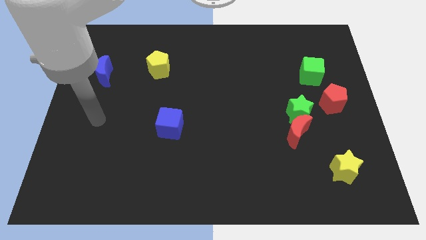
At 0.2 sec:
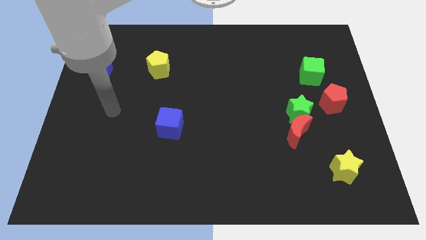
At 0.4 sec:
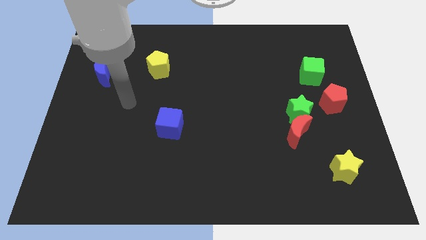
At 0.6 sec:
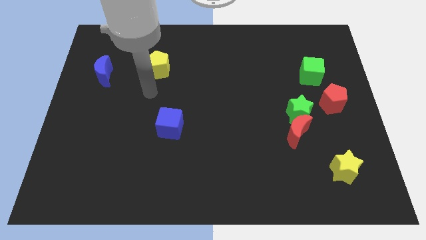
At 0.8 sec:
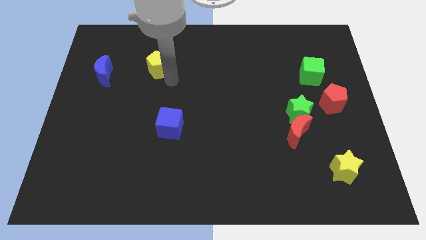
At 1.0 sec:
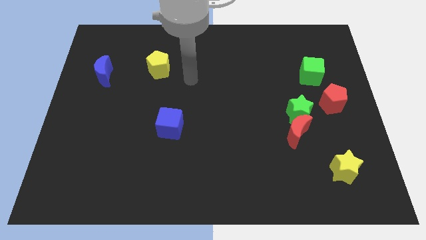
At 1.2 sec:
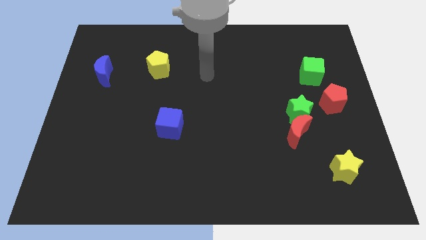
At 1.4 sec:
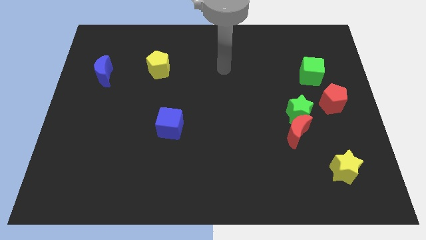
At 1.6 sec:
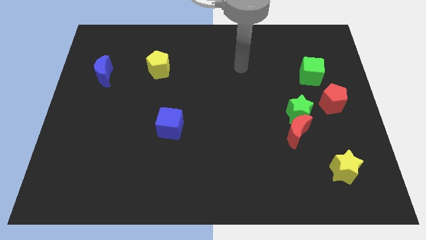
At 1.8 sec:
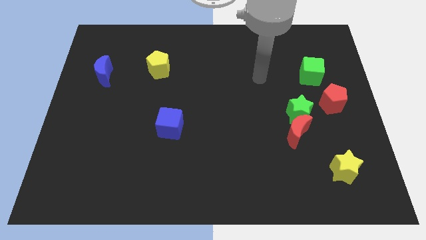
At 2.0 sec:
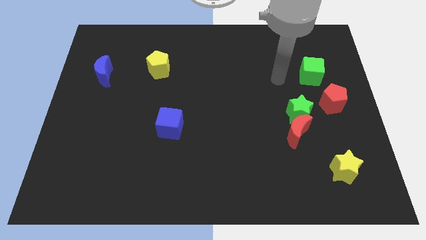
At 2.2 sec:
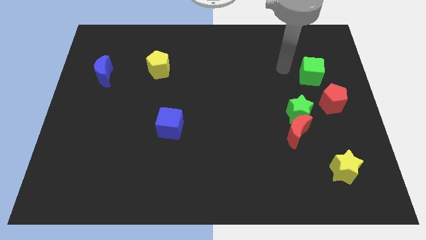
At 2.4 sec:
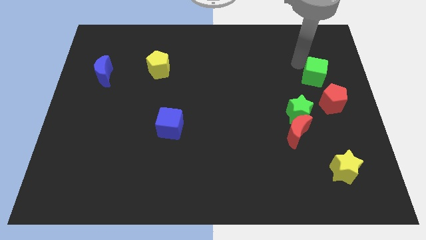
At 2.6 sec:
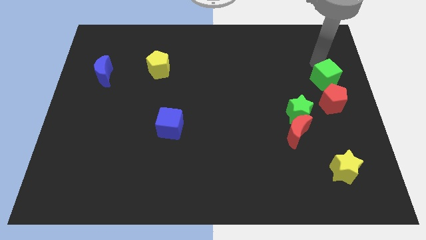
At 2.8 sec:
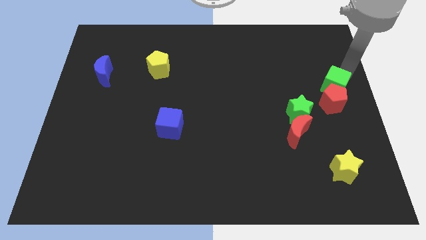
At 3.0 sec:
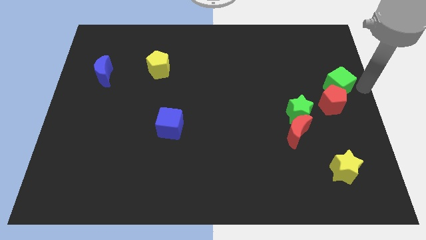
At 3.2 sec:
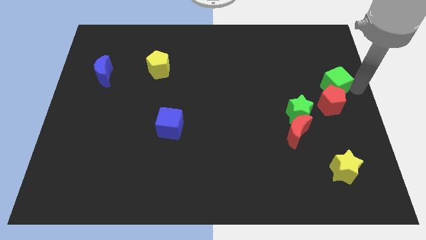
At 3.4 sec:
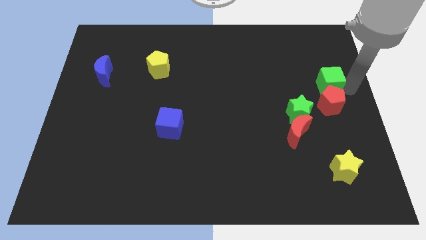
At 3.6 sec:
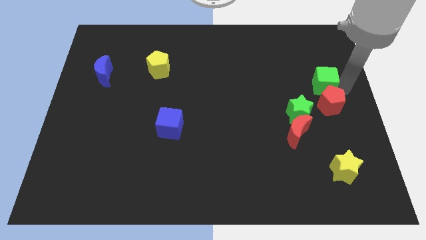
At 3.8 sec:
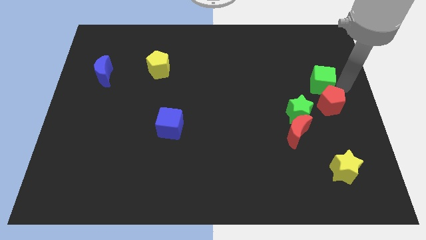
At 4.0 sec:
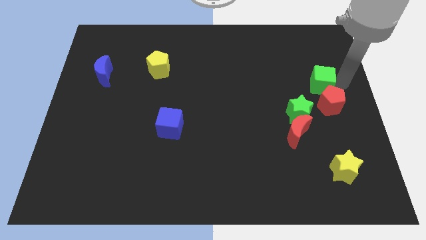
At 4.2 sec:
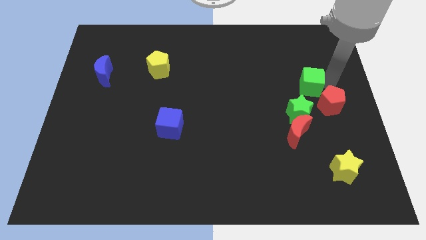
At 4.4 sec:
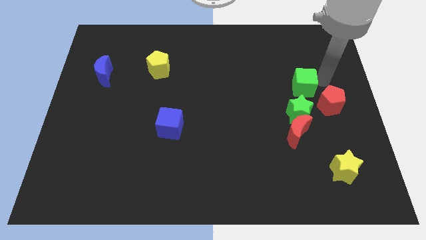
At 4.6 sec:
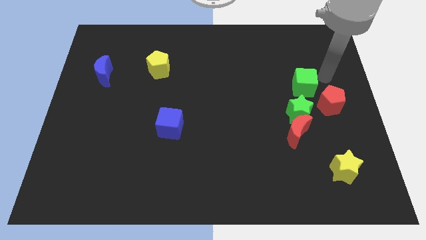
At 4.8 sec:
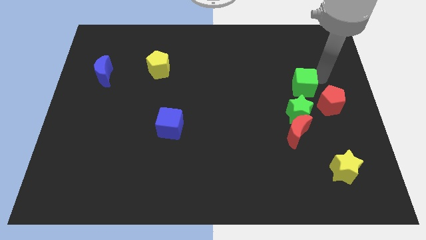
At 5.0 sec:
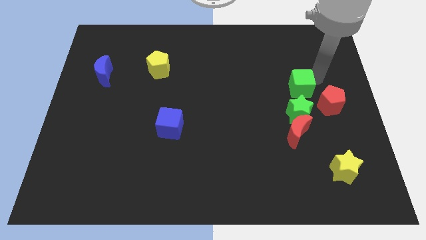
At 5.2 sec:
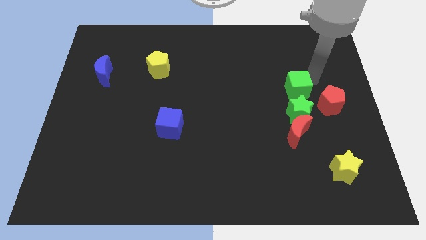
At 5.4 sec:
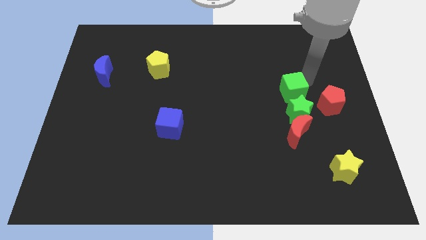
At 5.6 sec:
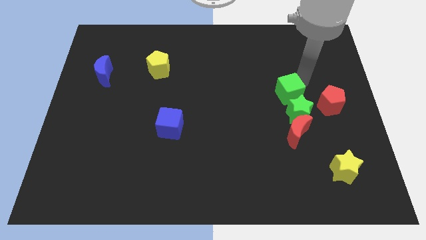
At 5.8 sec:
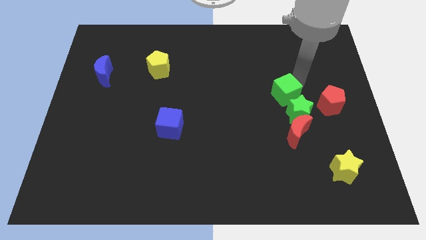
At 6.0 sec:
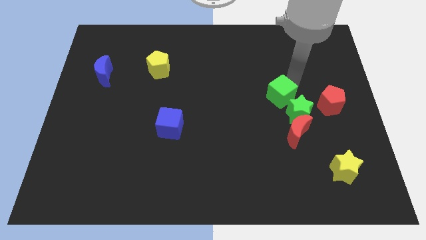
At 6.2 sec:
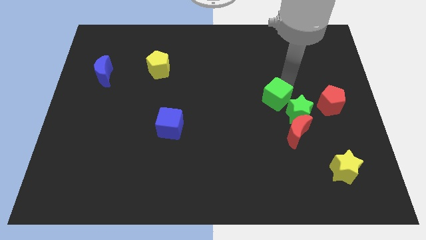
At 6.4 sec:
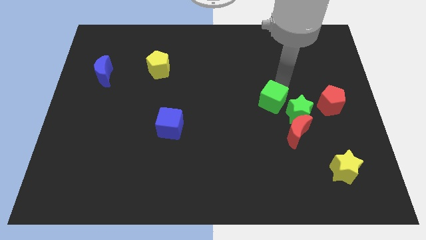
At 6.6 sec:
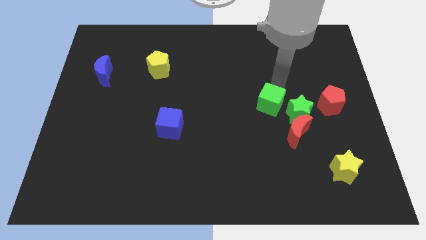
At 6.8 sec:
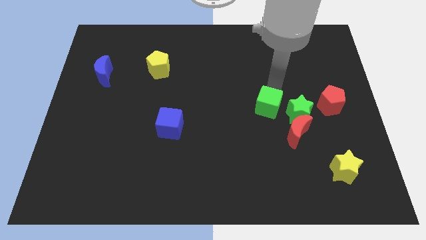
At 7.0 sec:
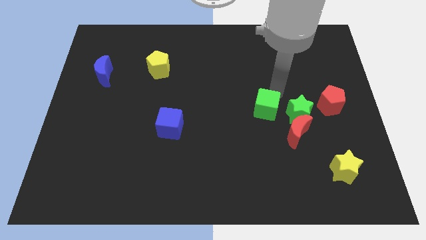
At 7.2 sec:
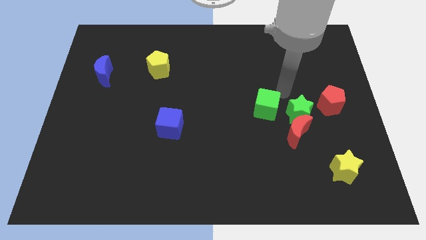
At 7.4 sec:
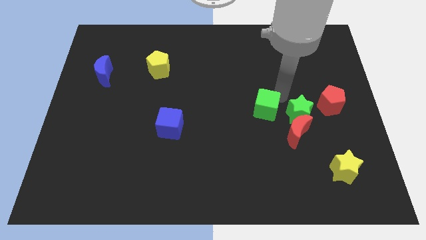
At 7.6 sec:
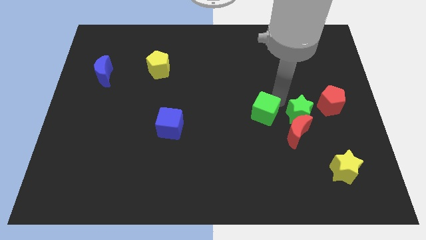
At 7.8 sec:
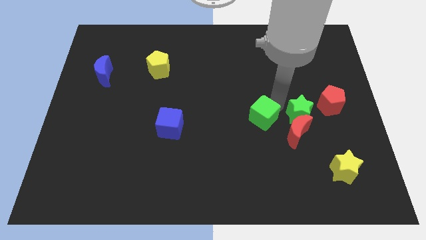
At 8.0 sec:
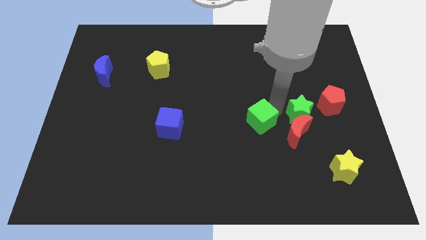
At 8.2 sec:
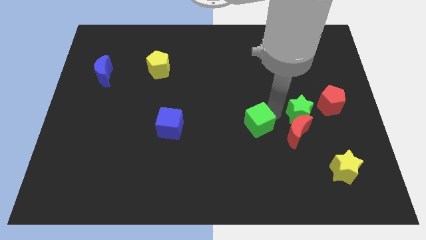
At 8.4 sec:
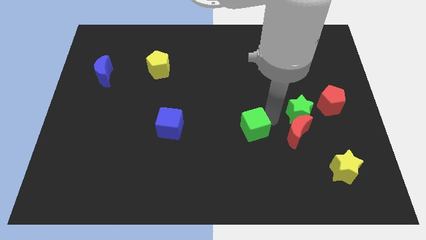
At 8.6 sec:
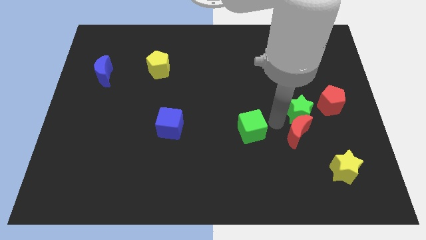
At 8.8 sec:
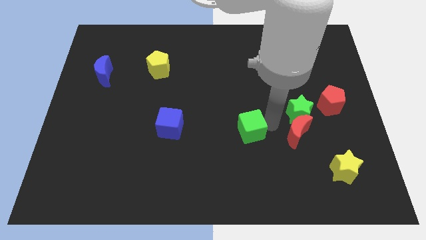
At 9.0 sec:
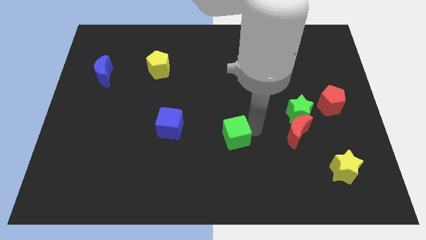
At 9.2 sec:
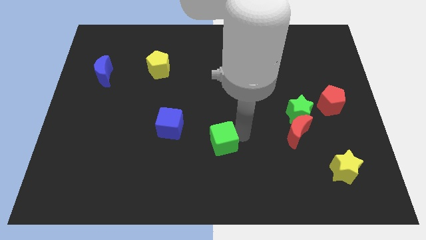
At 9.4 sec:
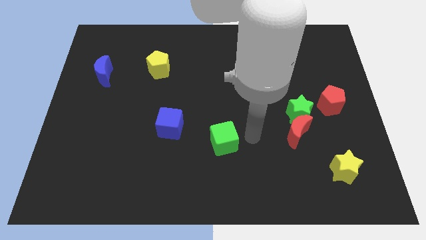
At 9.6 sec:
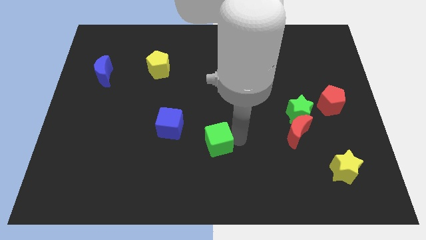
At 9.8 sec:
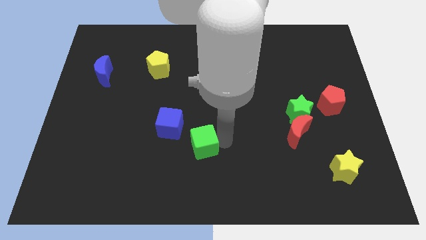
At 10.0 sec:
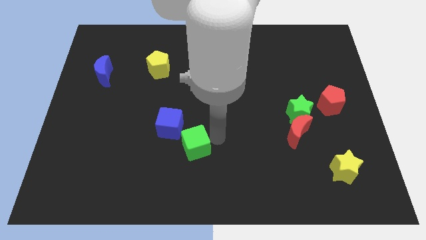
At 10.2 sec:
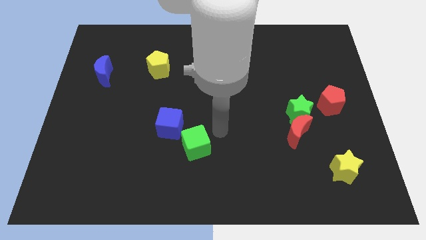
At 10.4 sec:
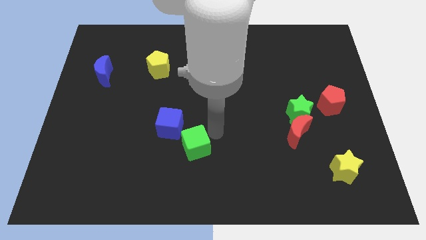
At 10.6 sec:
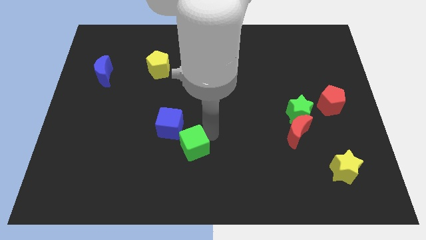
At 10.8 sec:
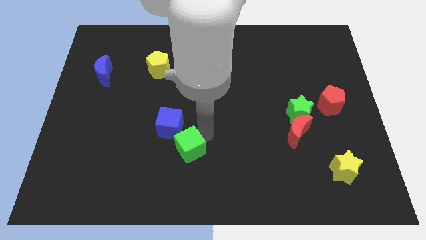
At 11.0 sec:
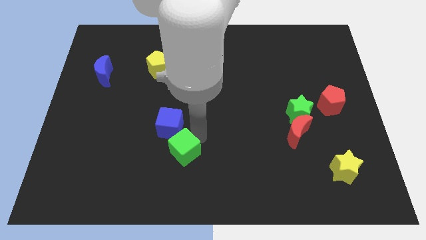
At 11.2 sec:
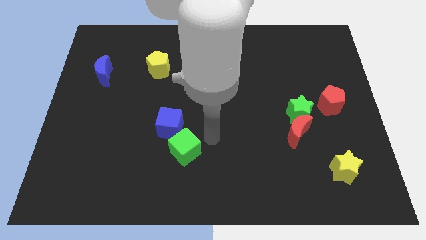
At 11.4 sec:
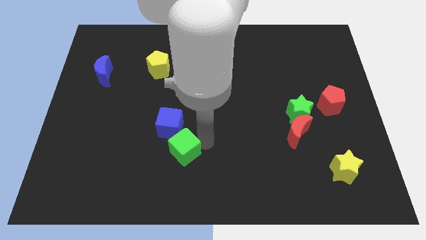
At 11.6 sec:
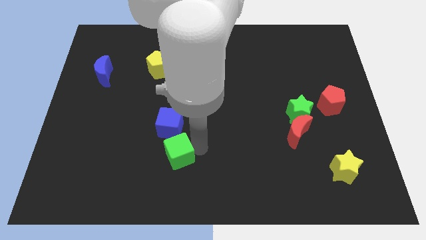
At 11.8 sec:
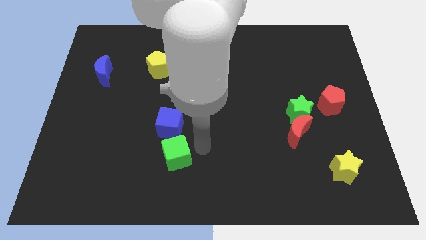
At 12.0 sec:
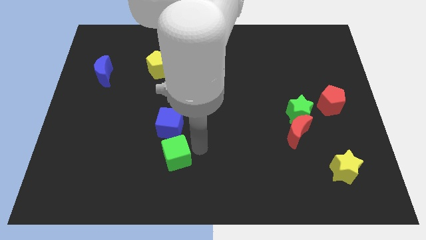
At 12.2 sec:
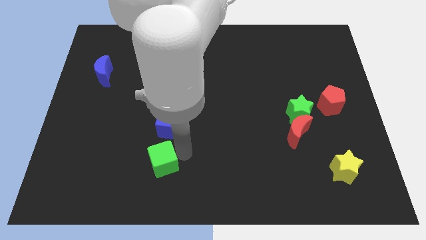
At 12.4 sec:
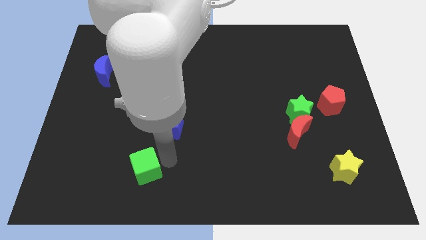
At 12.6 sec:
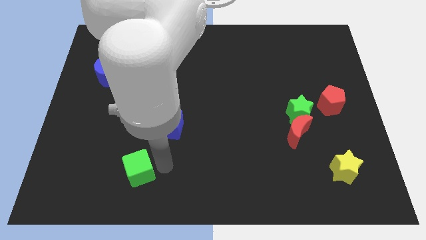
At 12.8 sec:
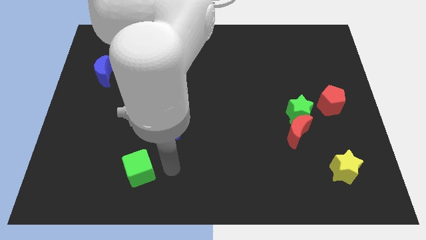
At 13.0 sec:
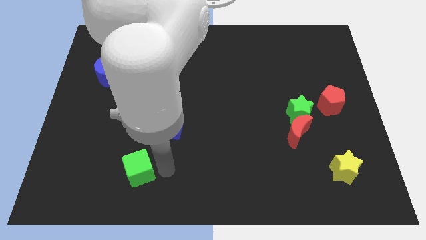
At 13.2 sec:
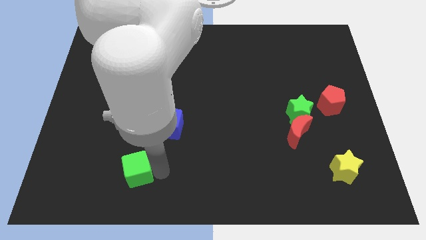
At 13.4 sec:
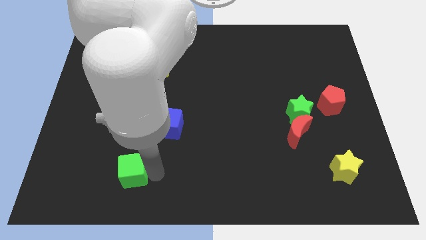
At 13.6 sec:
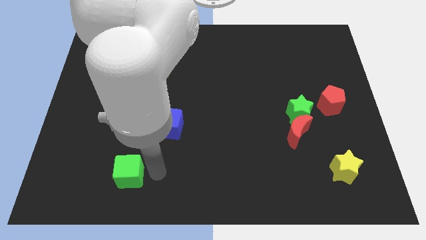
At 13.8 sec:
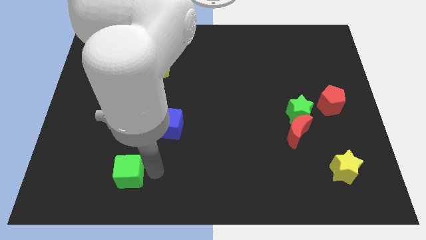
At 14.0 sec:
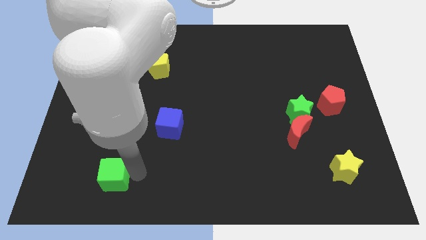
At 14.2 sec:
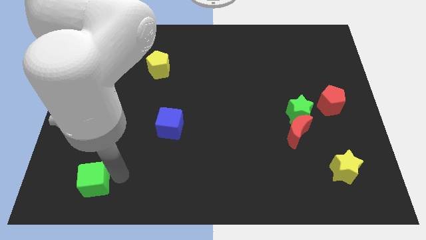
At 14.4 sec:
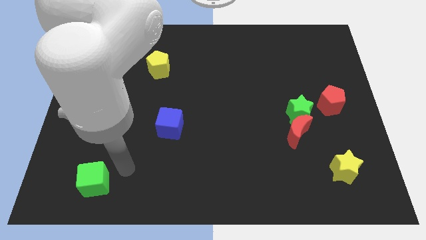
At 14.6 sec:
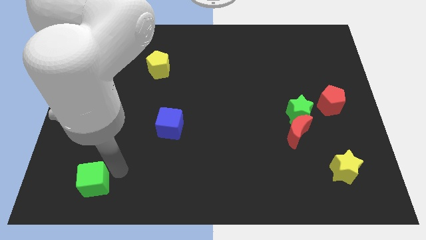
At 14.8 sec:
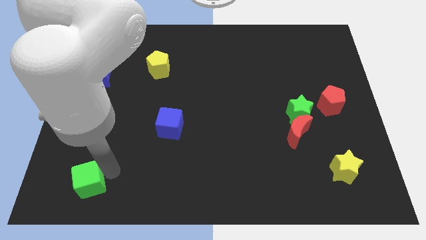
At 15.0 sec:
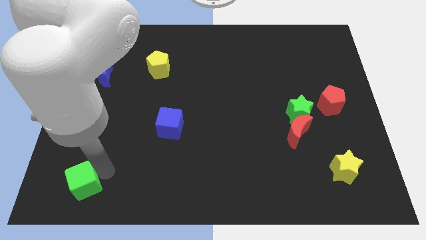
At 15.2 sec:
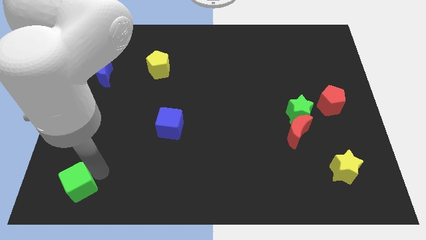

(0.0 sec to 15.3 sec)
slide the green cube to the bottom left
